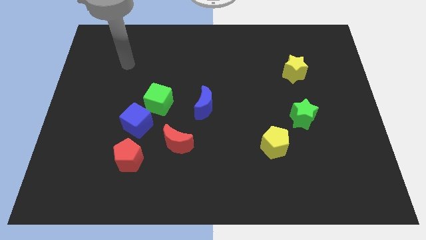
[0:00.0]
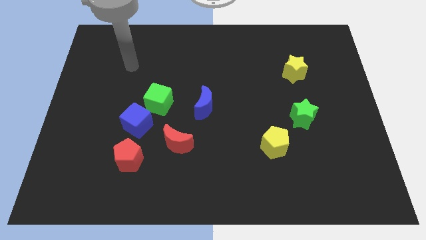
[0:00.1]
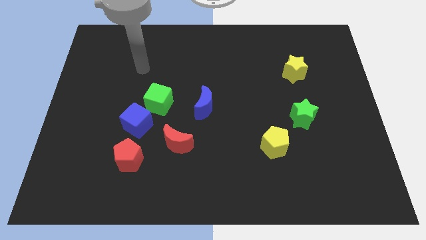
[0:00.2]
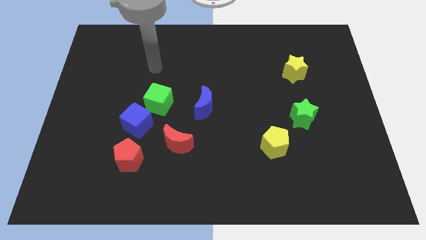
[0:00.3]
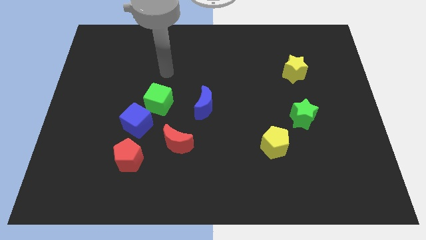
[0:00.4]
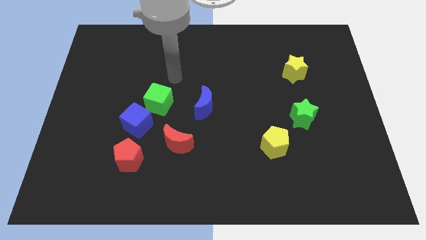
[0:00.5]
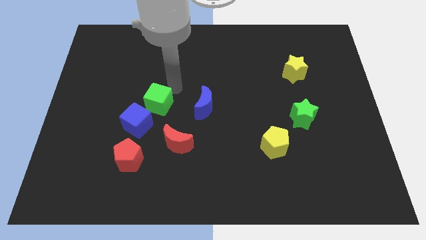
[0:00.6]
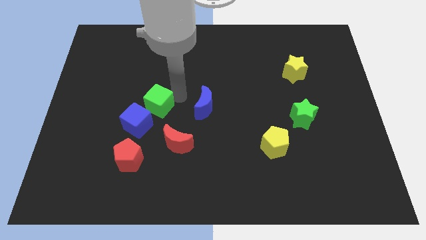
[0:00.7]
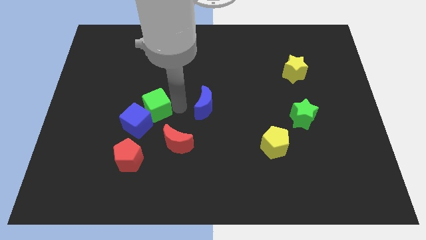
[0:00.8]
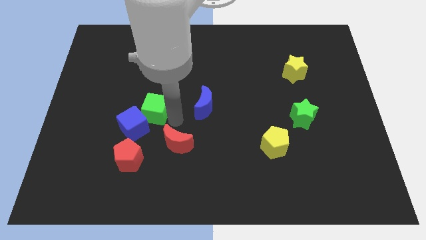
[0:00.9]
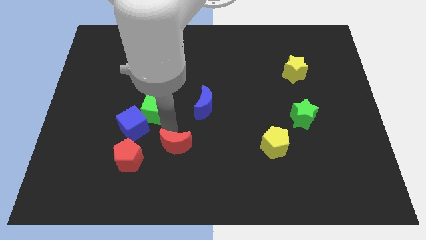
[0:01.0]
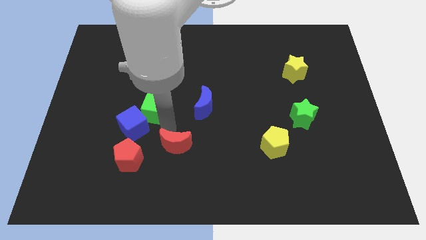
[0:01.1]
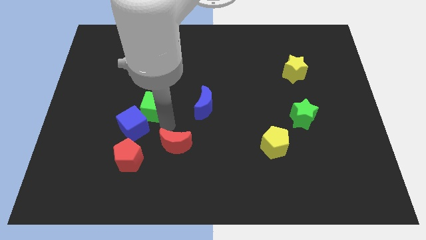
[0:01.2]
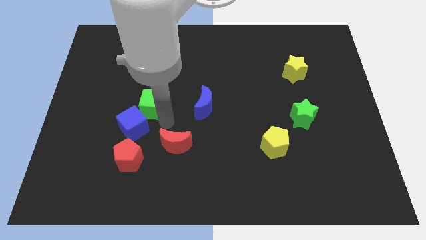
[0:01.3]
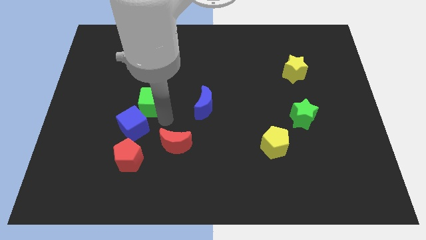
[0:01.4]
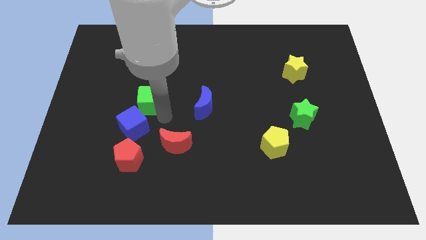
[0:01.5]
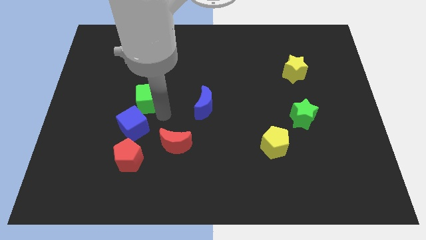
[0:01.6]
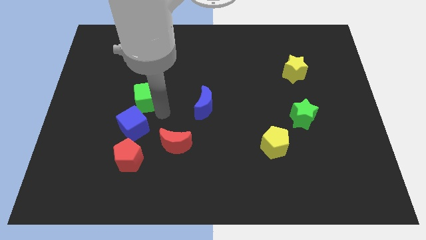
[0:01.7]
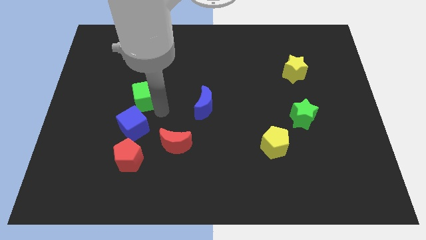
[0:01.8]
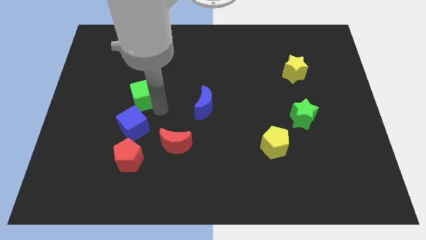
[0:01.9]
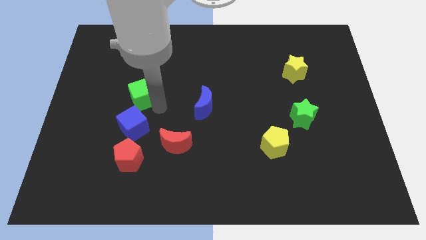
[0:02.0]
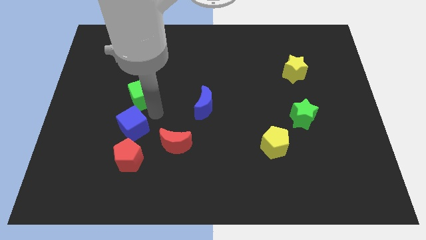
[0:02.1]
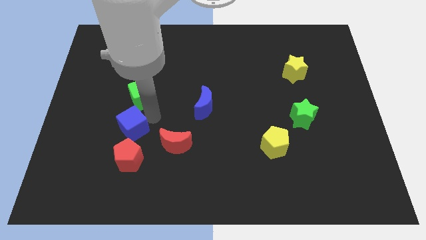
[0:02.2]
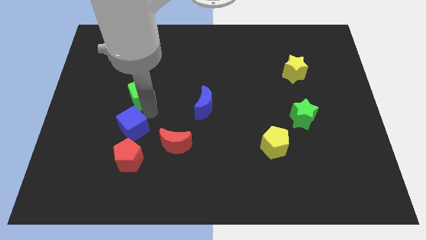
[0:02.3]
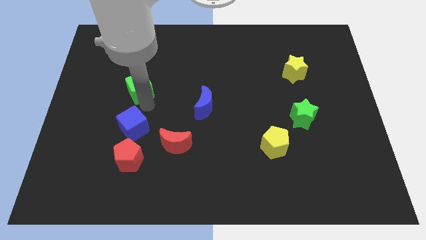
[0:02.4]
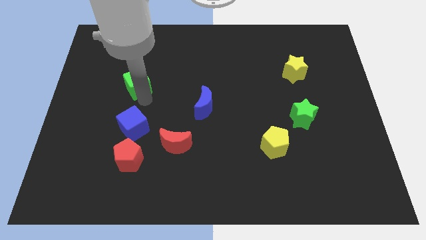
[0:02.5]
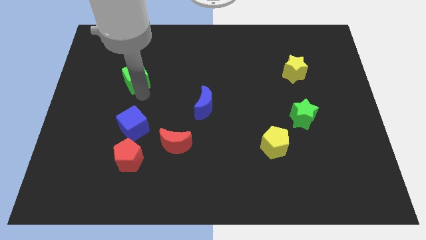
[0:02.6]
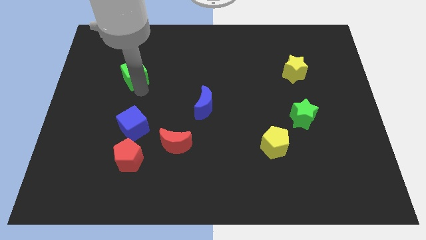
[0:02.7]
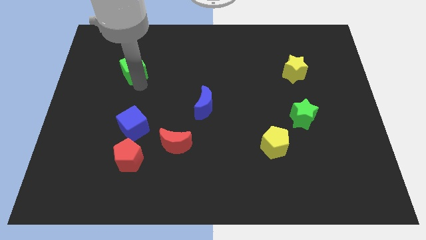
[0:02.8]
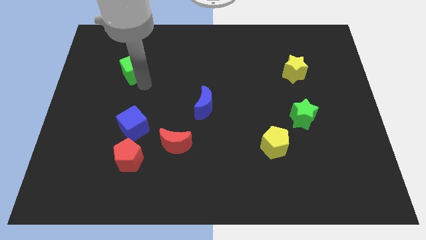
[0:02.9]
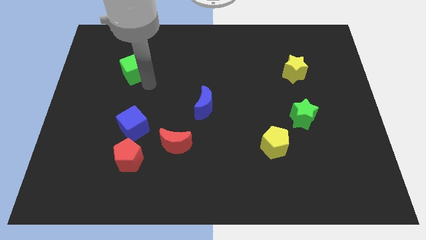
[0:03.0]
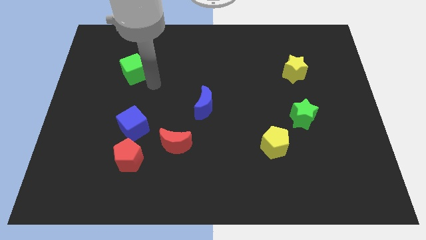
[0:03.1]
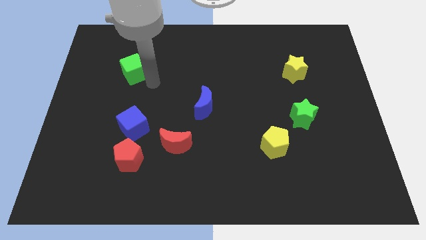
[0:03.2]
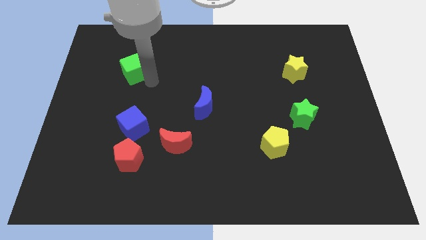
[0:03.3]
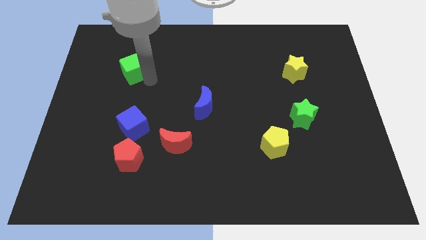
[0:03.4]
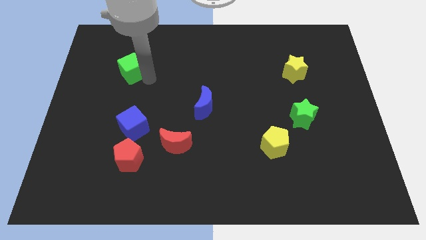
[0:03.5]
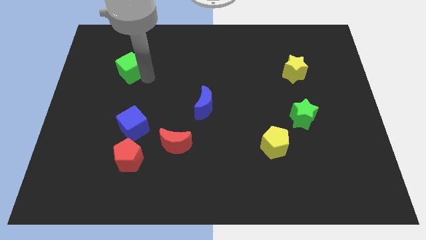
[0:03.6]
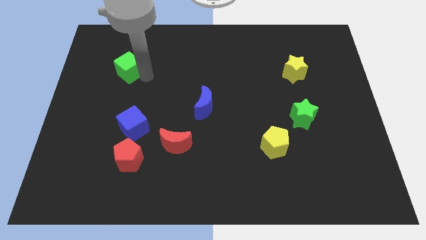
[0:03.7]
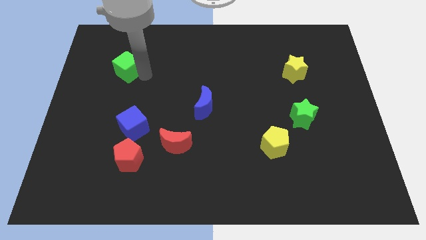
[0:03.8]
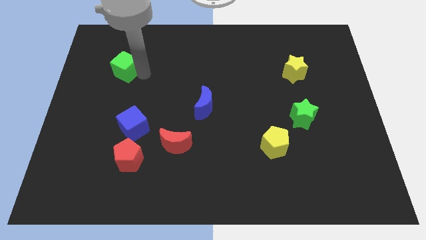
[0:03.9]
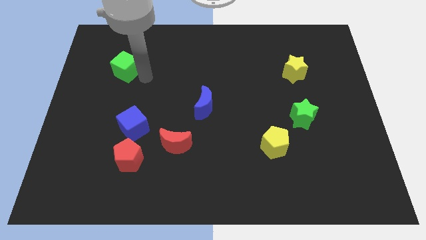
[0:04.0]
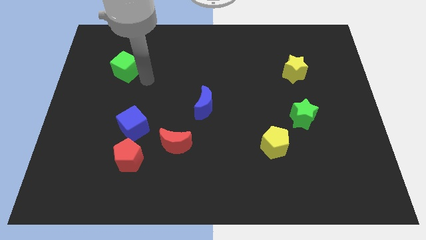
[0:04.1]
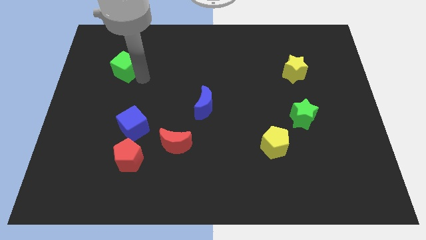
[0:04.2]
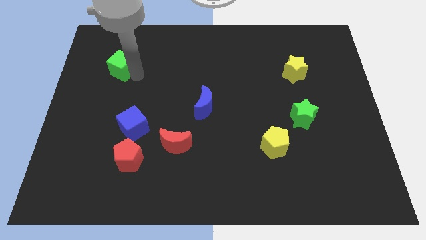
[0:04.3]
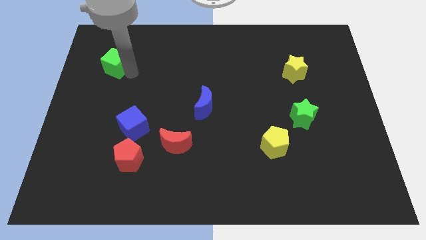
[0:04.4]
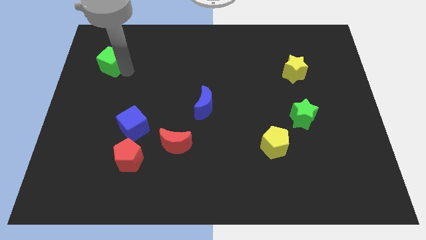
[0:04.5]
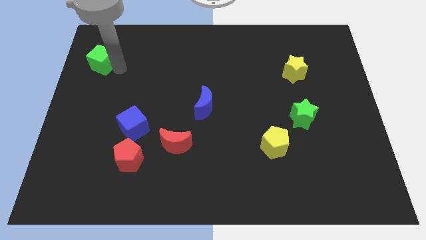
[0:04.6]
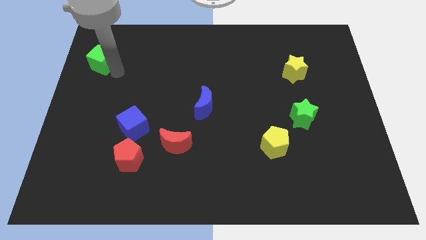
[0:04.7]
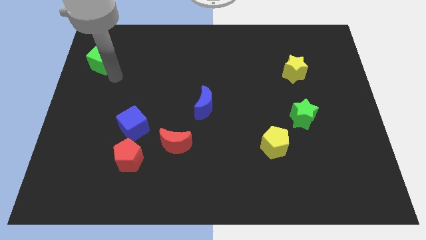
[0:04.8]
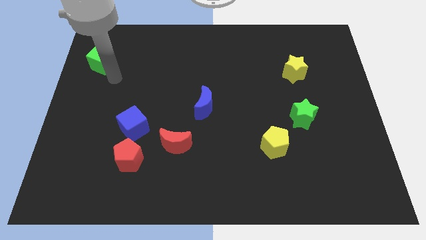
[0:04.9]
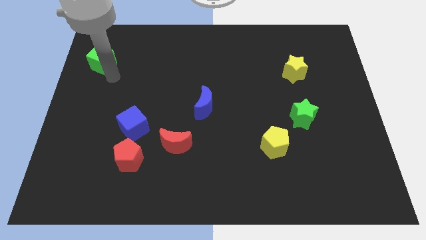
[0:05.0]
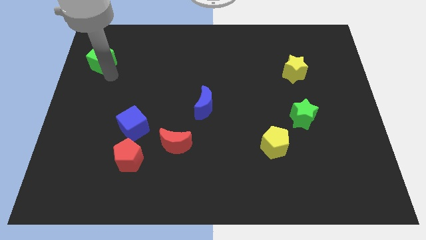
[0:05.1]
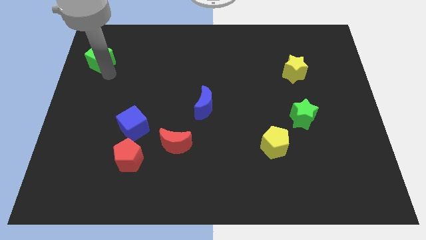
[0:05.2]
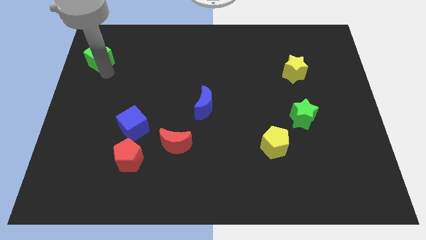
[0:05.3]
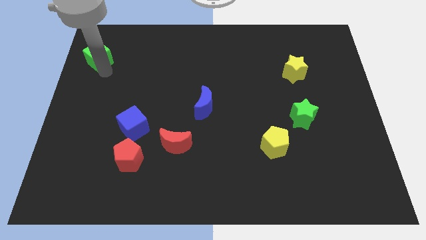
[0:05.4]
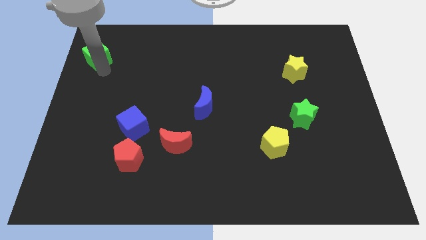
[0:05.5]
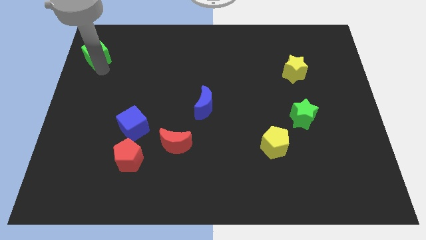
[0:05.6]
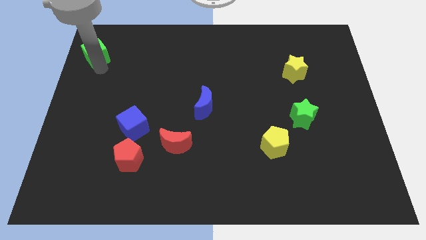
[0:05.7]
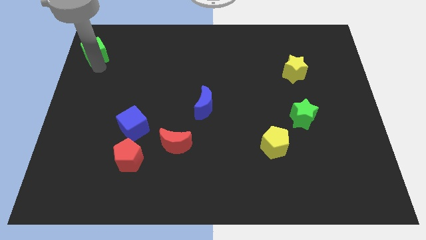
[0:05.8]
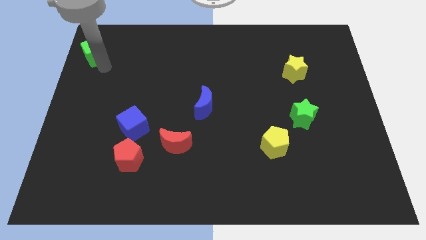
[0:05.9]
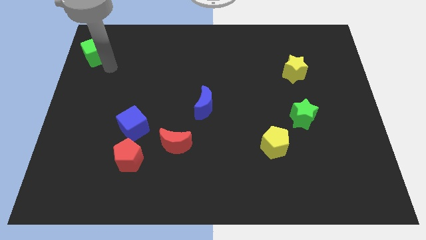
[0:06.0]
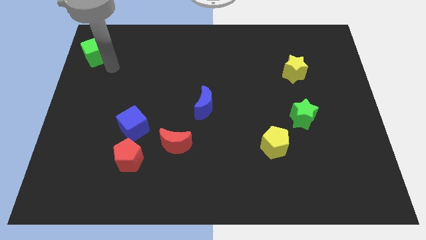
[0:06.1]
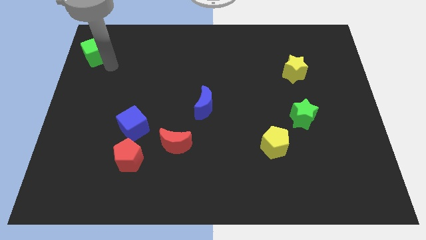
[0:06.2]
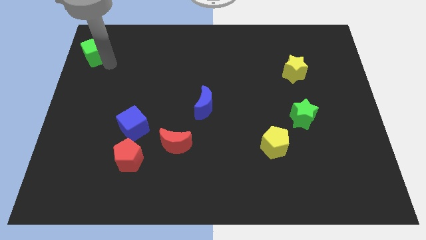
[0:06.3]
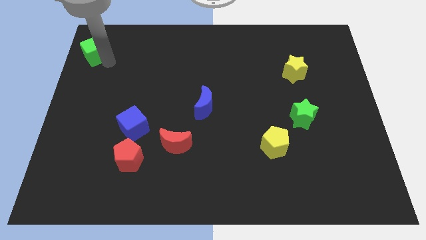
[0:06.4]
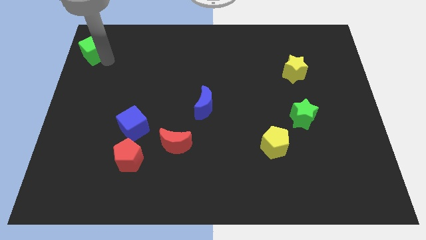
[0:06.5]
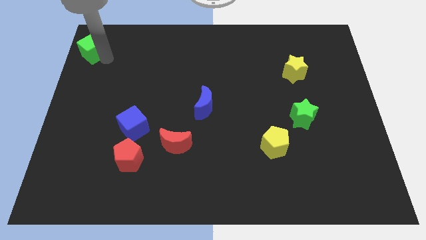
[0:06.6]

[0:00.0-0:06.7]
slide the green cube to the top left of the board
